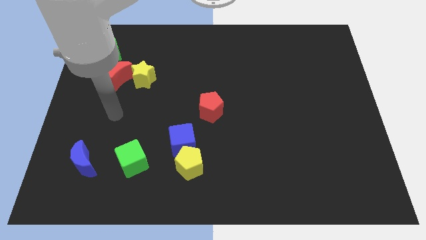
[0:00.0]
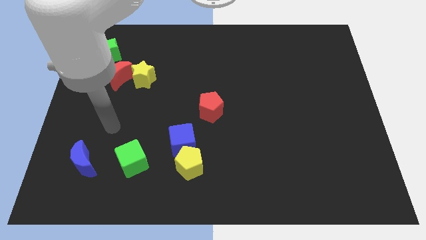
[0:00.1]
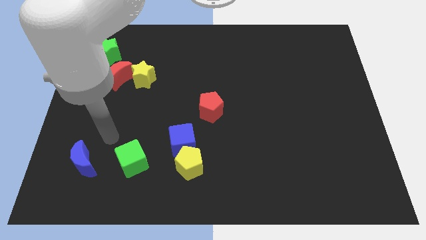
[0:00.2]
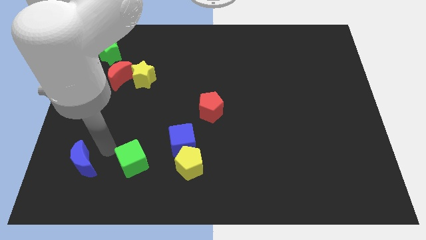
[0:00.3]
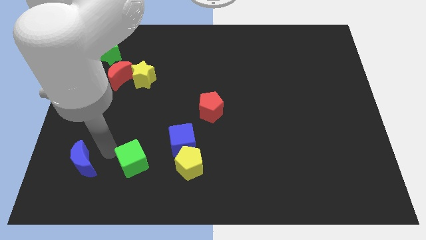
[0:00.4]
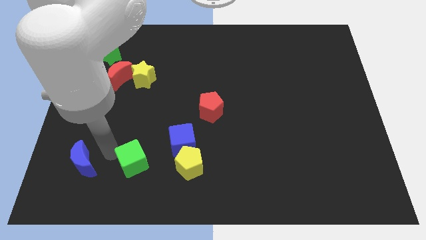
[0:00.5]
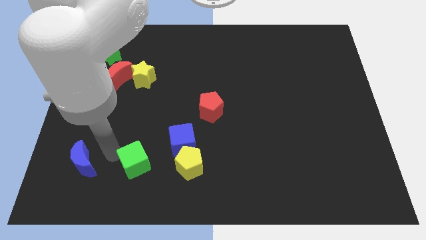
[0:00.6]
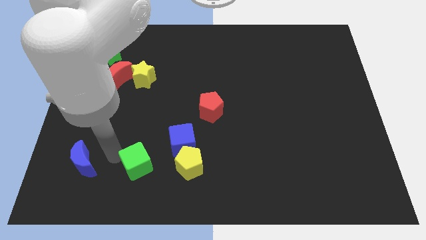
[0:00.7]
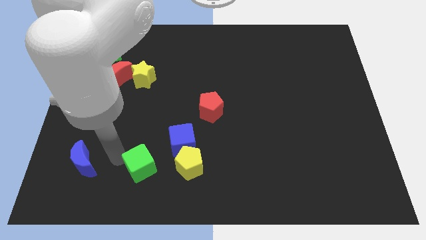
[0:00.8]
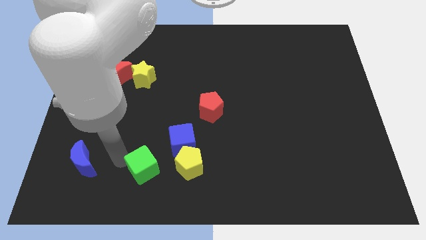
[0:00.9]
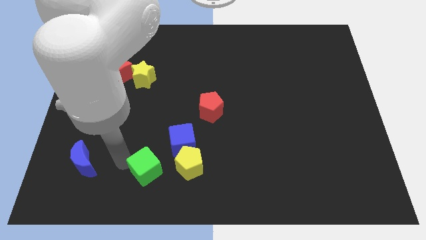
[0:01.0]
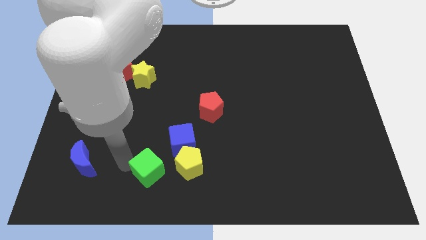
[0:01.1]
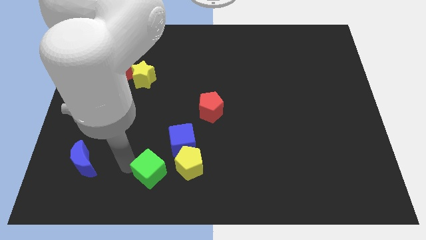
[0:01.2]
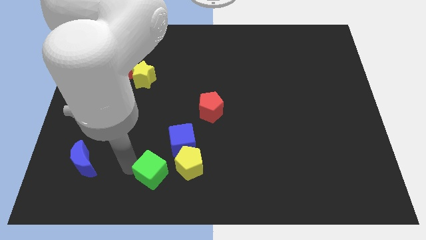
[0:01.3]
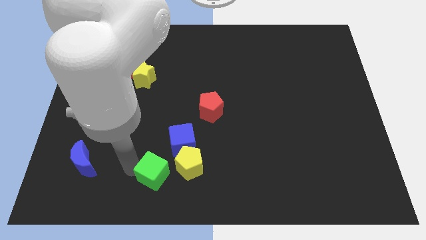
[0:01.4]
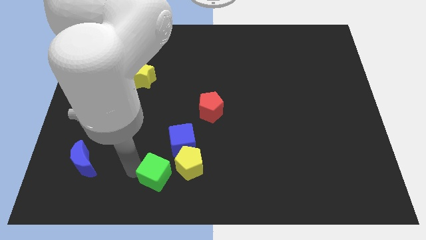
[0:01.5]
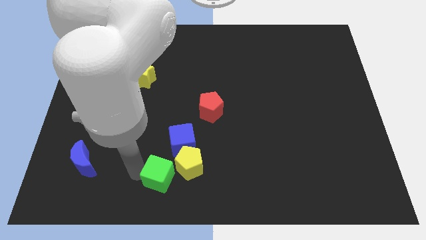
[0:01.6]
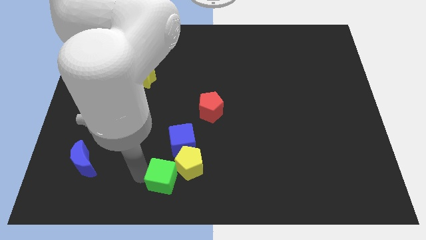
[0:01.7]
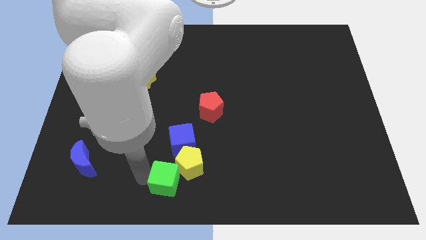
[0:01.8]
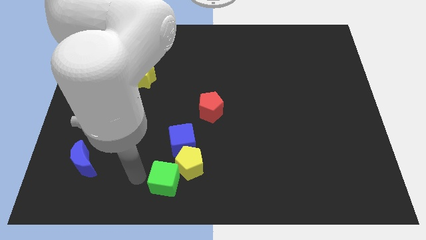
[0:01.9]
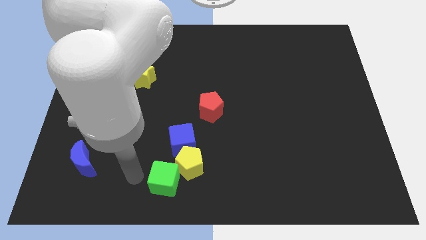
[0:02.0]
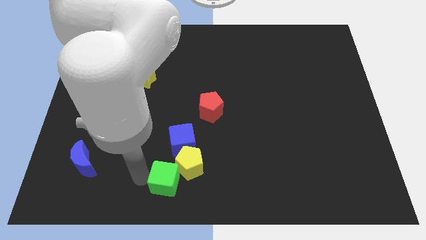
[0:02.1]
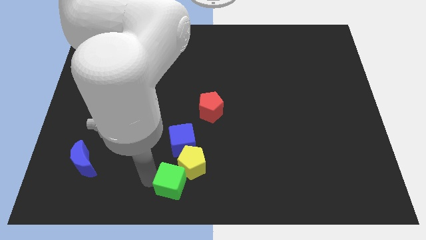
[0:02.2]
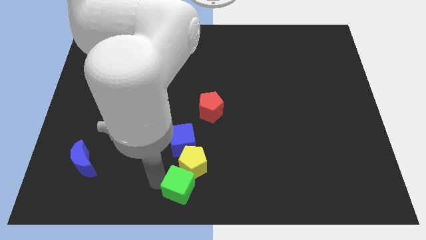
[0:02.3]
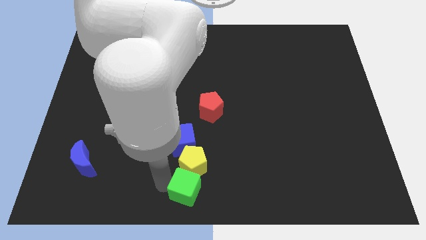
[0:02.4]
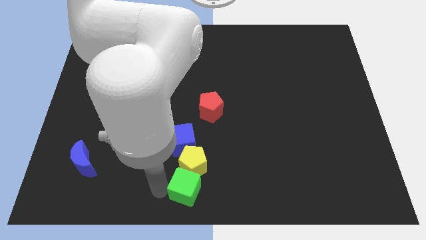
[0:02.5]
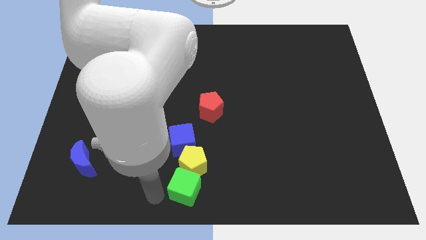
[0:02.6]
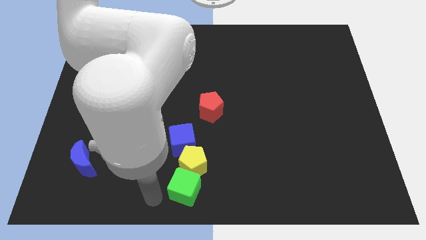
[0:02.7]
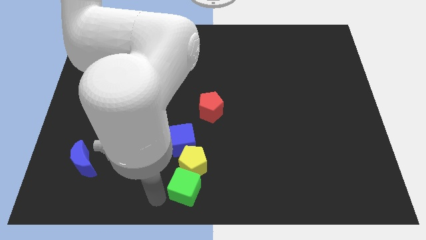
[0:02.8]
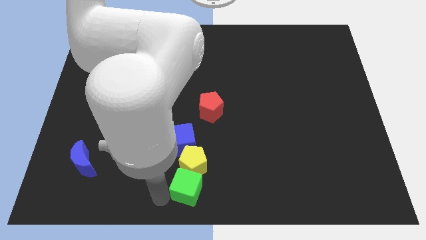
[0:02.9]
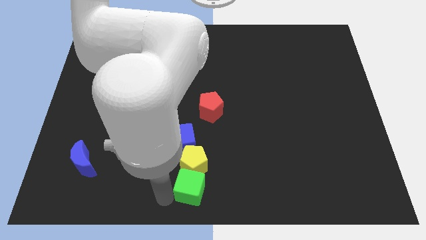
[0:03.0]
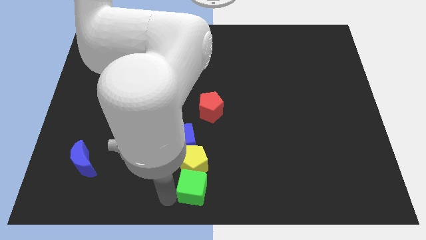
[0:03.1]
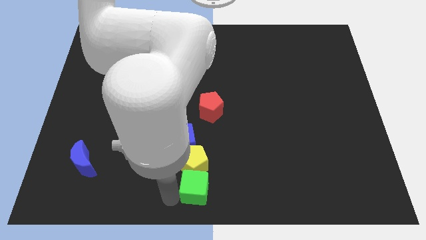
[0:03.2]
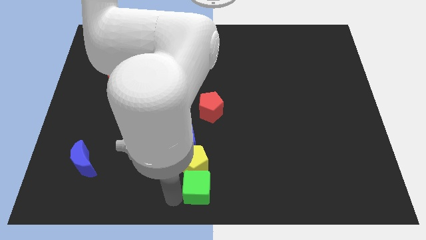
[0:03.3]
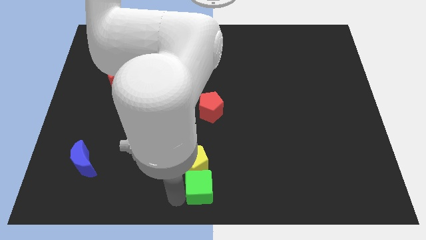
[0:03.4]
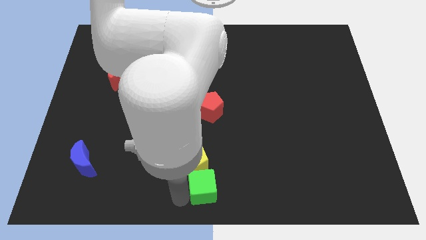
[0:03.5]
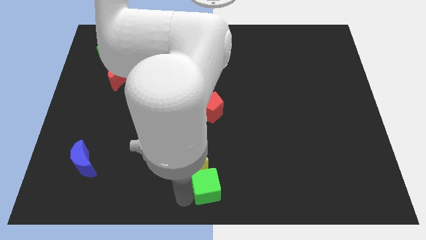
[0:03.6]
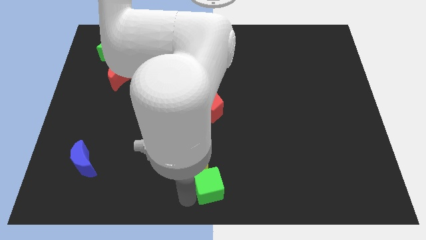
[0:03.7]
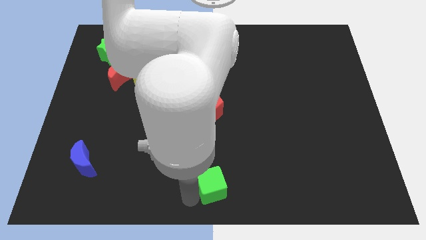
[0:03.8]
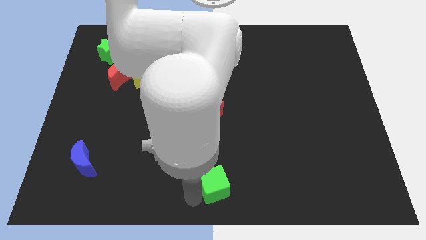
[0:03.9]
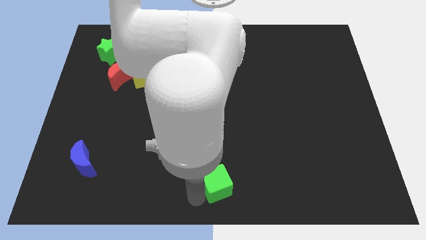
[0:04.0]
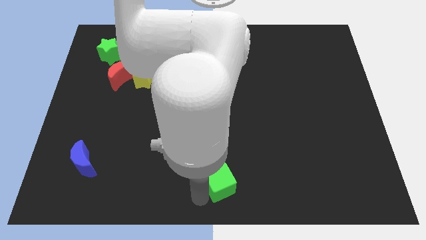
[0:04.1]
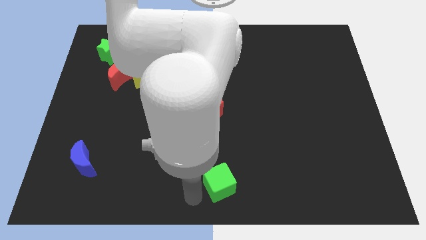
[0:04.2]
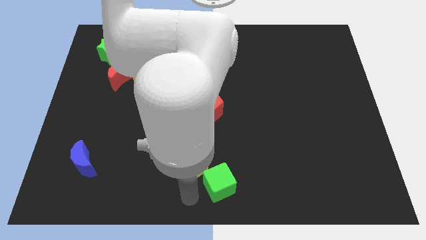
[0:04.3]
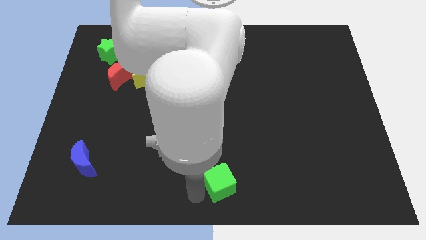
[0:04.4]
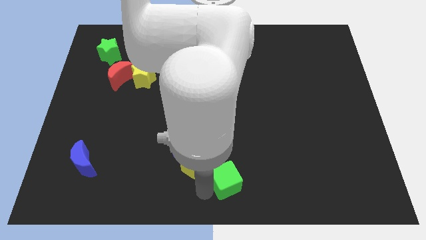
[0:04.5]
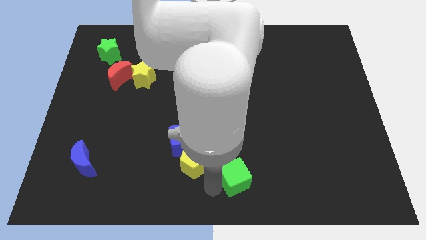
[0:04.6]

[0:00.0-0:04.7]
slide the green cube to the right

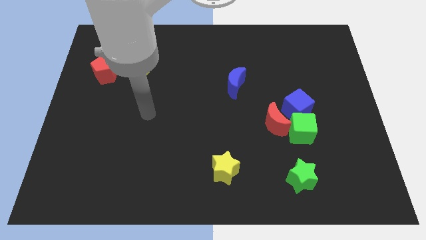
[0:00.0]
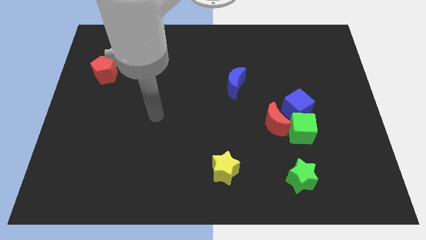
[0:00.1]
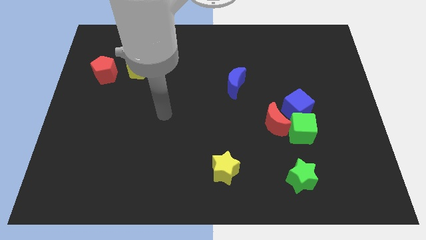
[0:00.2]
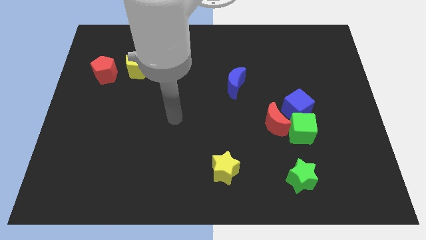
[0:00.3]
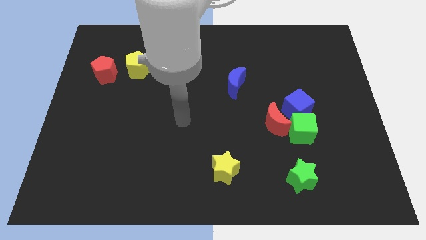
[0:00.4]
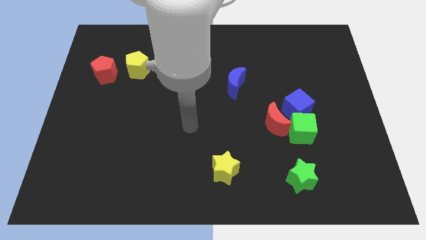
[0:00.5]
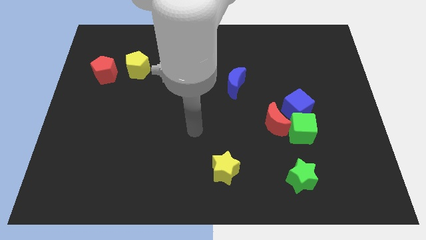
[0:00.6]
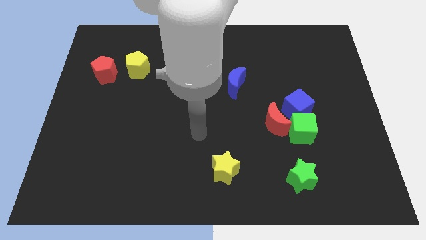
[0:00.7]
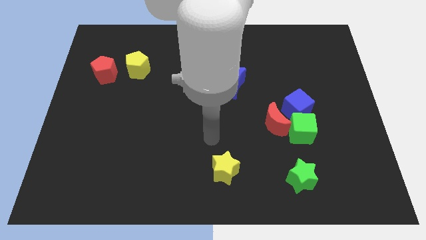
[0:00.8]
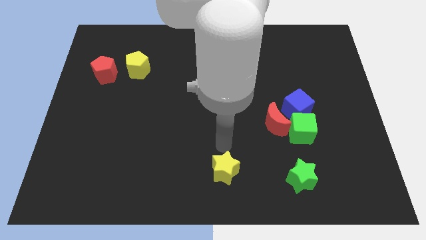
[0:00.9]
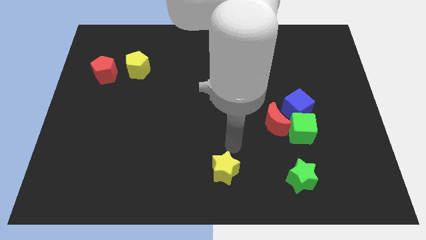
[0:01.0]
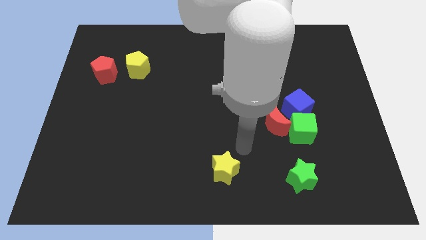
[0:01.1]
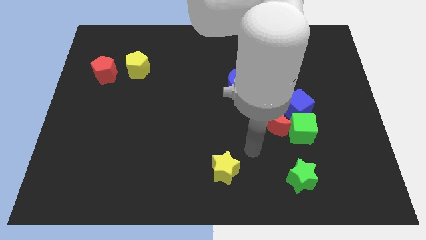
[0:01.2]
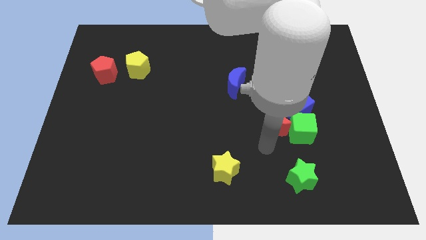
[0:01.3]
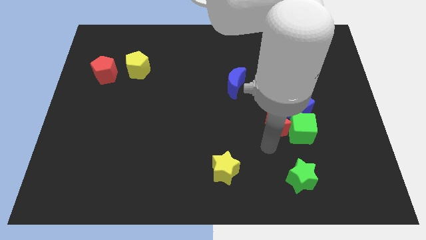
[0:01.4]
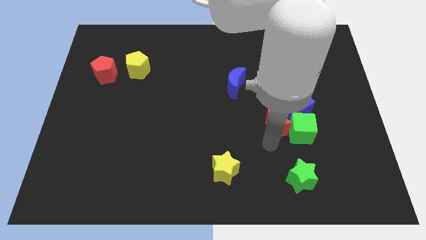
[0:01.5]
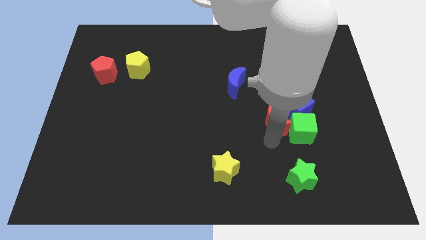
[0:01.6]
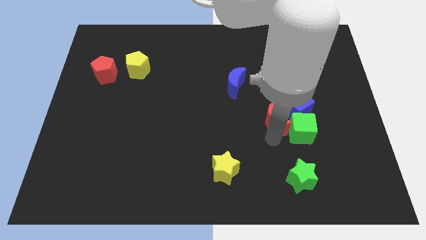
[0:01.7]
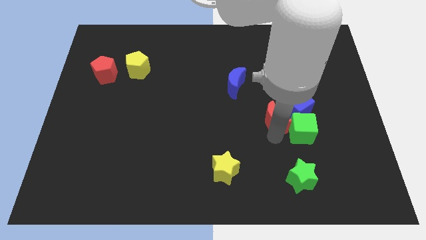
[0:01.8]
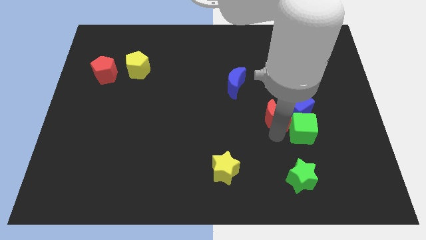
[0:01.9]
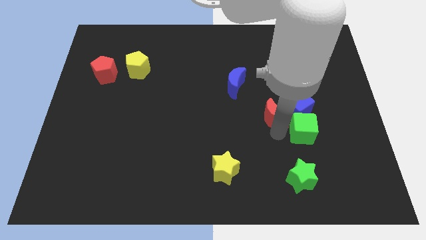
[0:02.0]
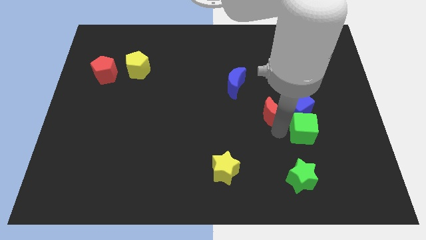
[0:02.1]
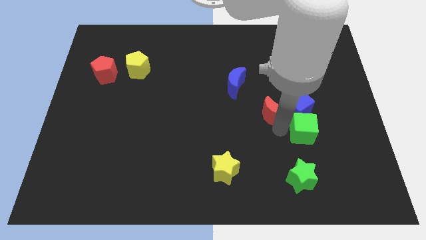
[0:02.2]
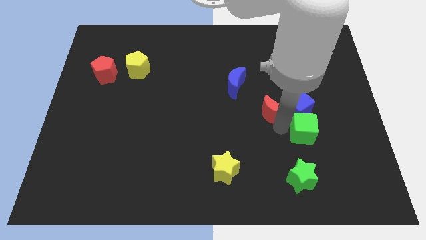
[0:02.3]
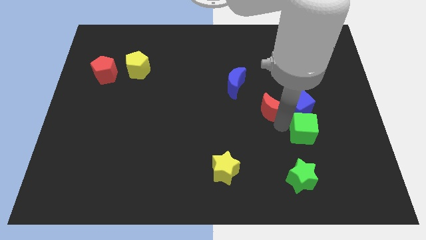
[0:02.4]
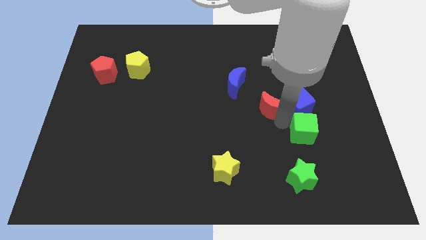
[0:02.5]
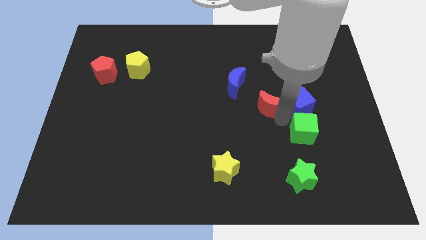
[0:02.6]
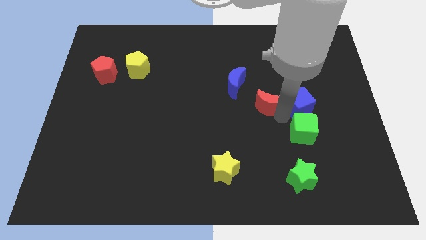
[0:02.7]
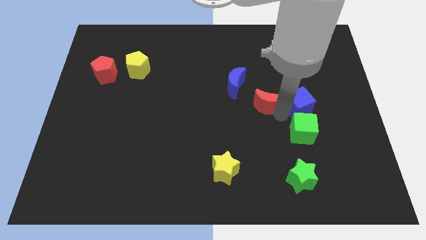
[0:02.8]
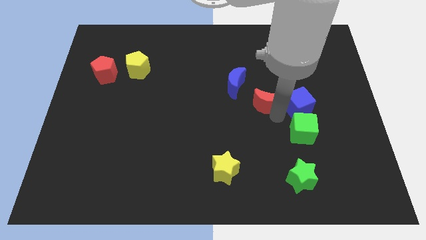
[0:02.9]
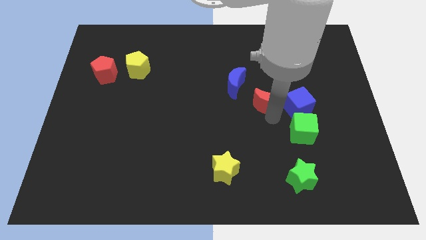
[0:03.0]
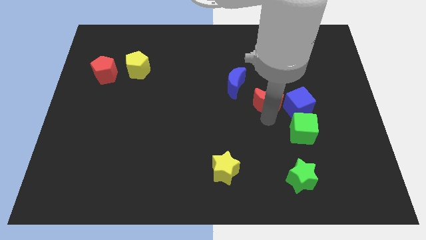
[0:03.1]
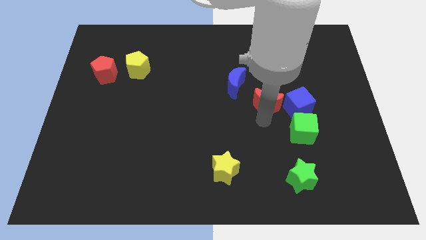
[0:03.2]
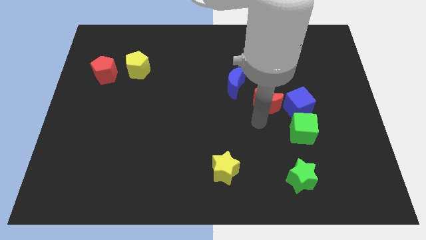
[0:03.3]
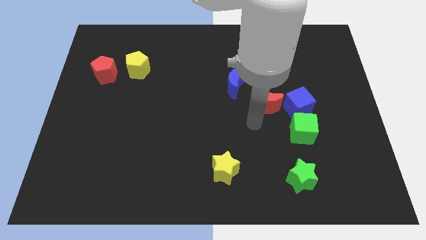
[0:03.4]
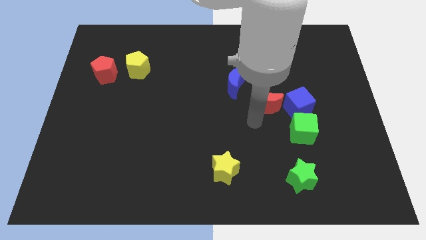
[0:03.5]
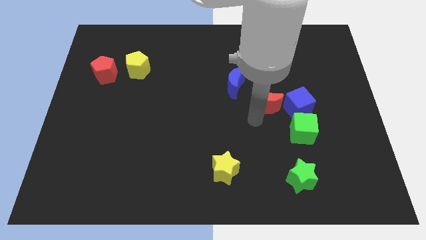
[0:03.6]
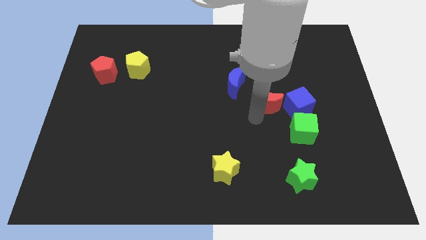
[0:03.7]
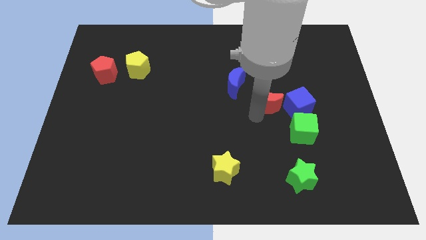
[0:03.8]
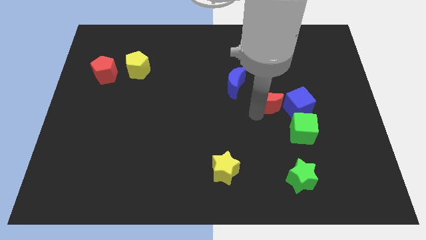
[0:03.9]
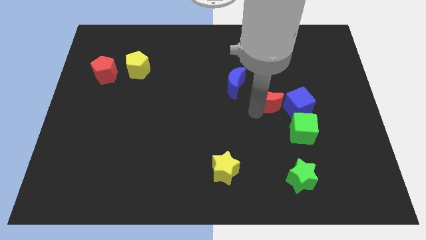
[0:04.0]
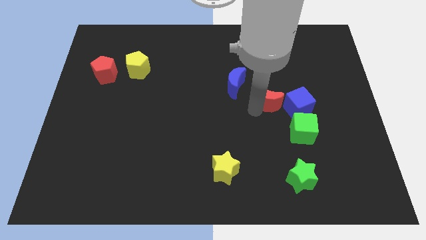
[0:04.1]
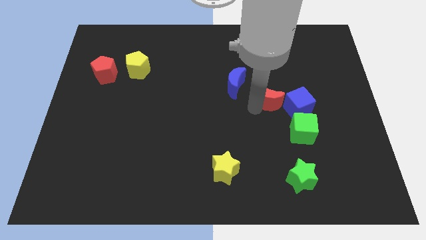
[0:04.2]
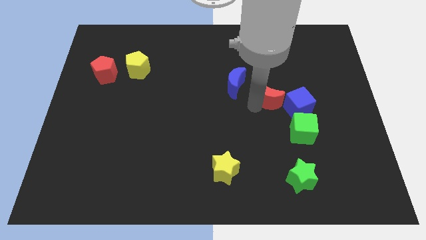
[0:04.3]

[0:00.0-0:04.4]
slide the red moon up slightly
